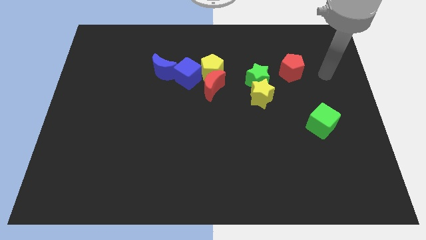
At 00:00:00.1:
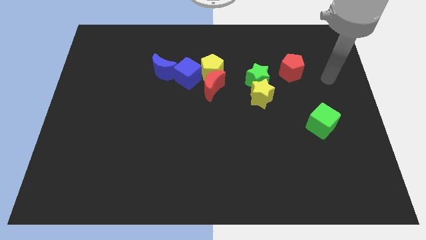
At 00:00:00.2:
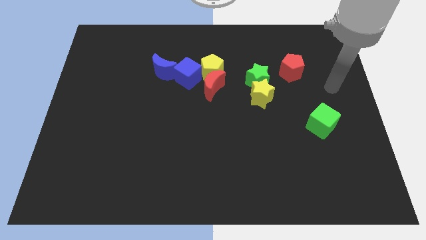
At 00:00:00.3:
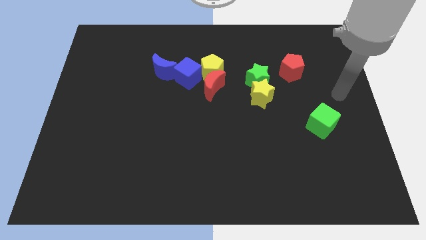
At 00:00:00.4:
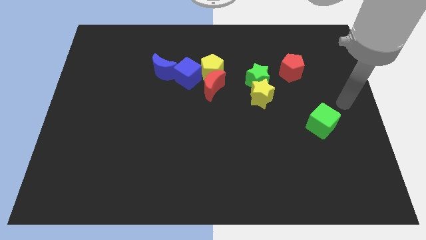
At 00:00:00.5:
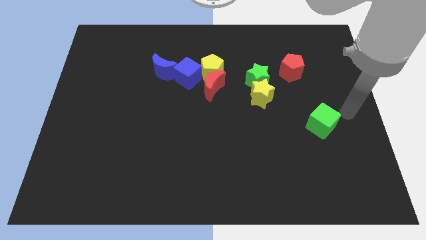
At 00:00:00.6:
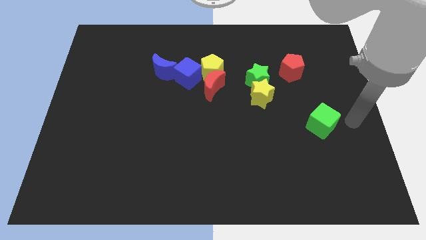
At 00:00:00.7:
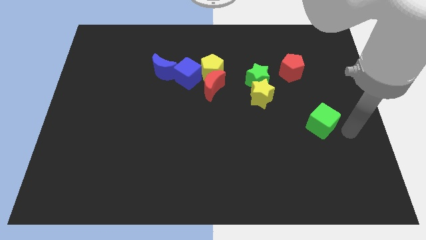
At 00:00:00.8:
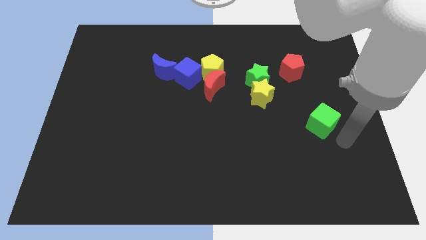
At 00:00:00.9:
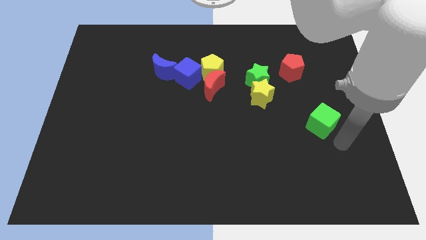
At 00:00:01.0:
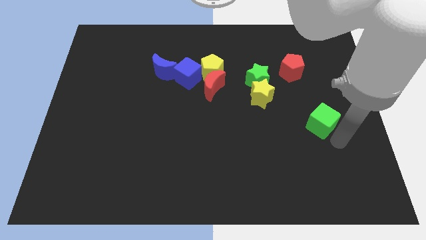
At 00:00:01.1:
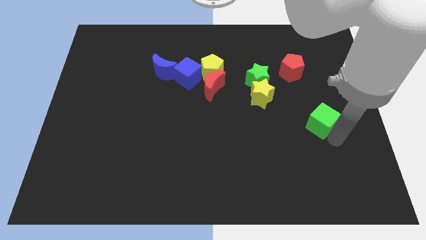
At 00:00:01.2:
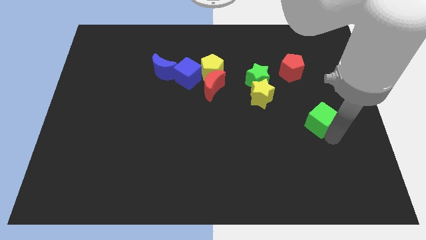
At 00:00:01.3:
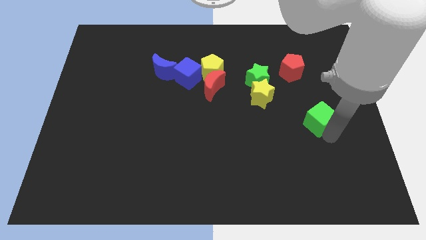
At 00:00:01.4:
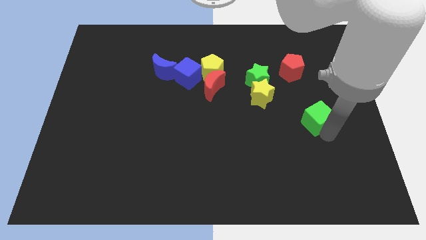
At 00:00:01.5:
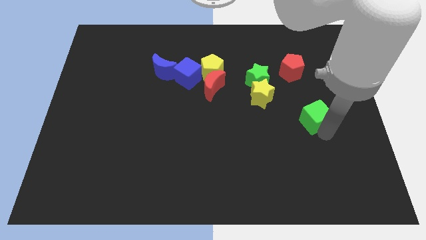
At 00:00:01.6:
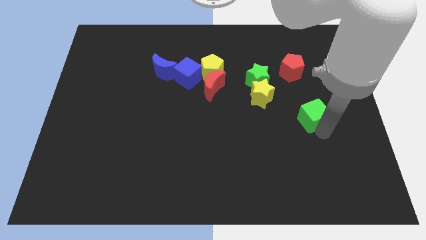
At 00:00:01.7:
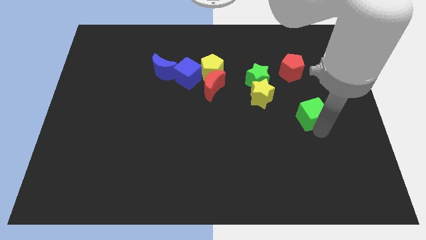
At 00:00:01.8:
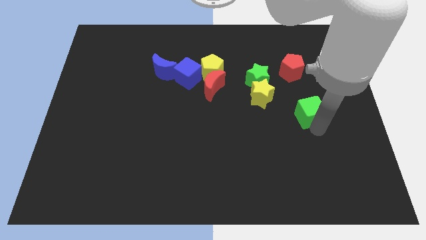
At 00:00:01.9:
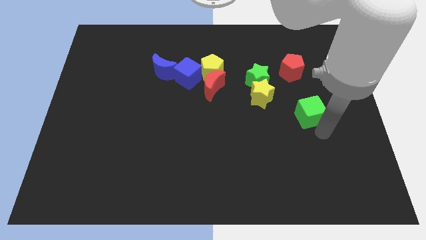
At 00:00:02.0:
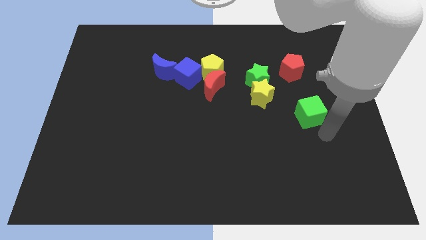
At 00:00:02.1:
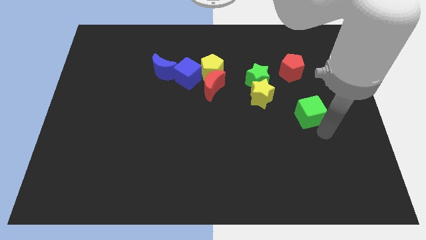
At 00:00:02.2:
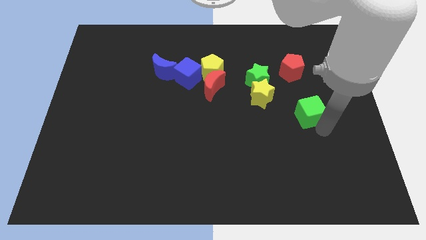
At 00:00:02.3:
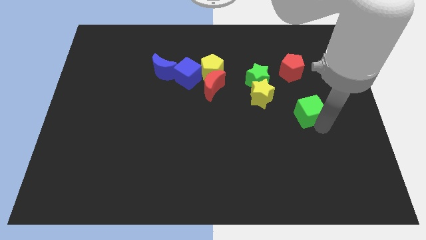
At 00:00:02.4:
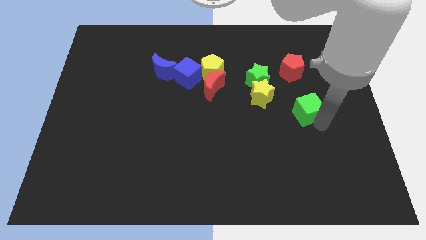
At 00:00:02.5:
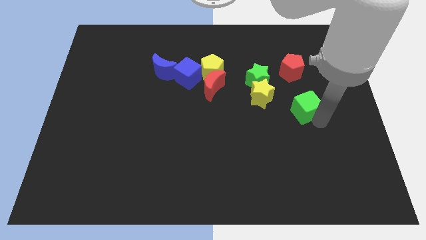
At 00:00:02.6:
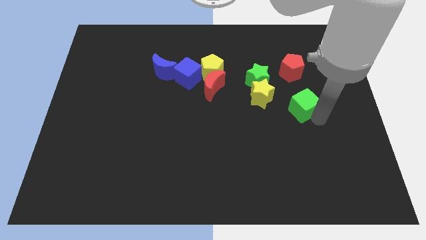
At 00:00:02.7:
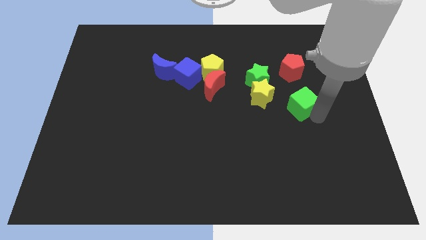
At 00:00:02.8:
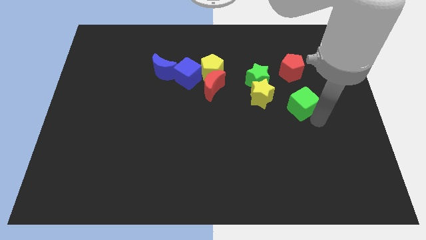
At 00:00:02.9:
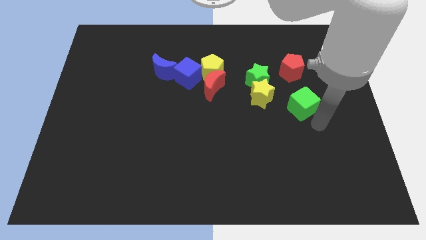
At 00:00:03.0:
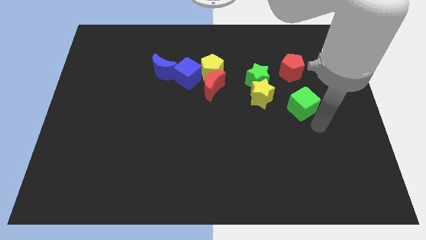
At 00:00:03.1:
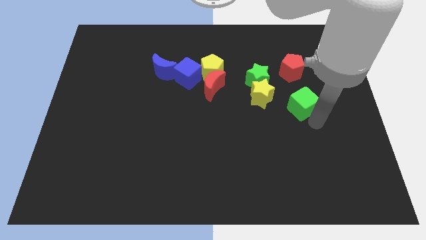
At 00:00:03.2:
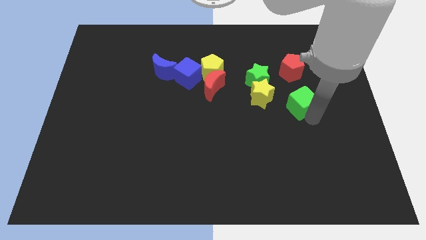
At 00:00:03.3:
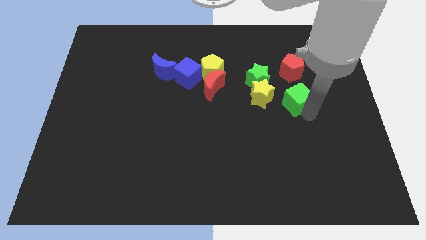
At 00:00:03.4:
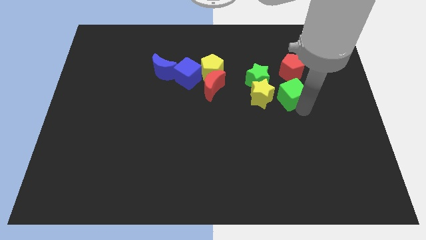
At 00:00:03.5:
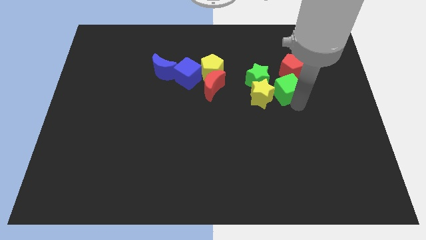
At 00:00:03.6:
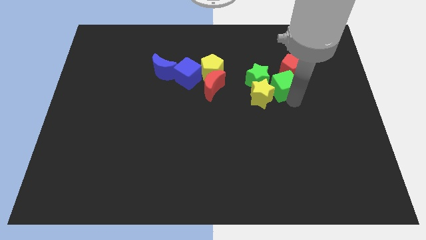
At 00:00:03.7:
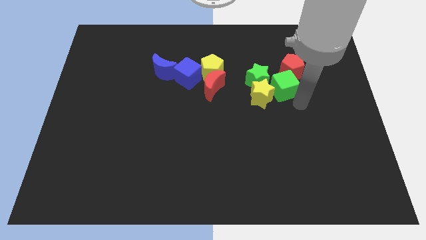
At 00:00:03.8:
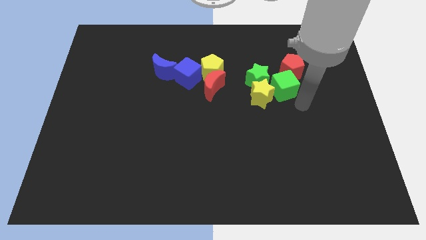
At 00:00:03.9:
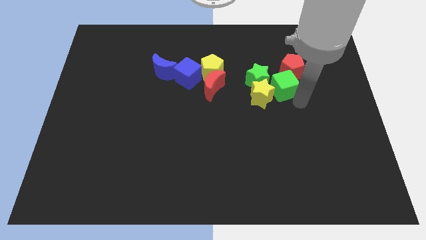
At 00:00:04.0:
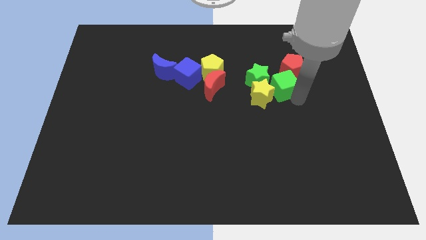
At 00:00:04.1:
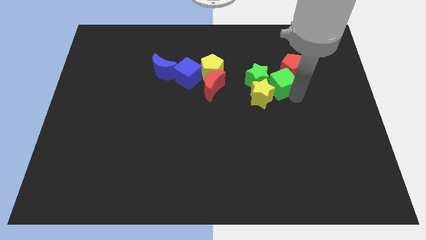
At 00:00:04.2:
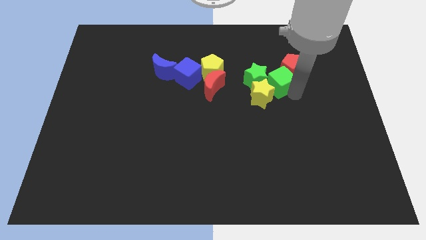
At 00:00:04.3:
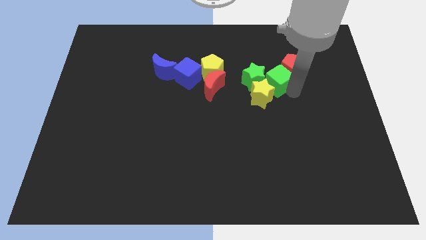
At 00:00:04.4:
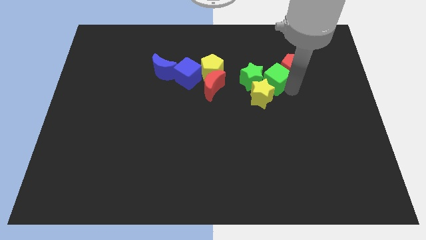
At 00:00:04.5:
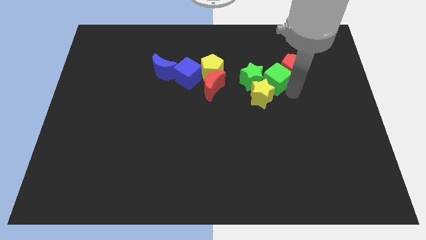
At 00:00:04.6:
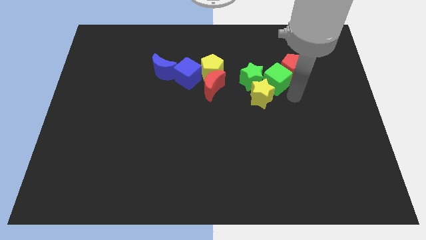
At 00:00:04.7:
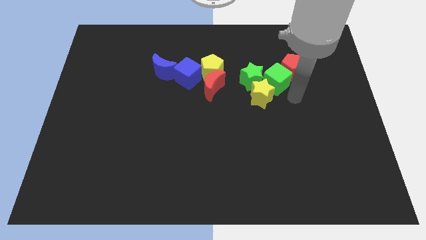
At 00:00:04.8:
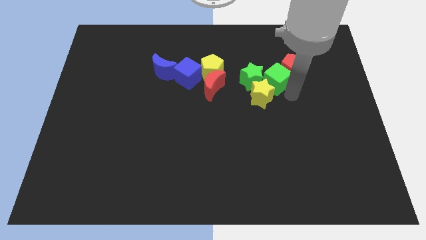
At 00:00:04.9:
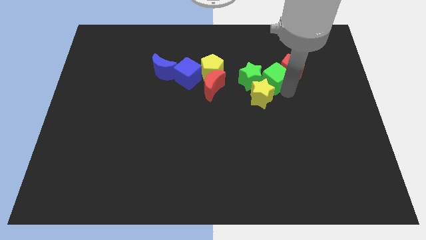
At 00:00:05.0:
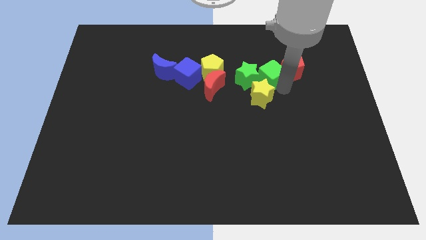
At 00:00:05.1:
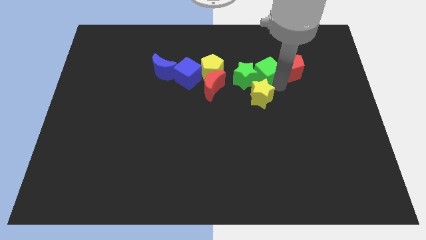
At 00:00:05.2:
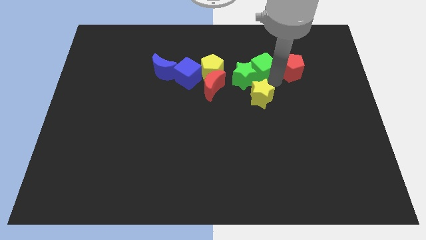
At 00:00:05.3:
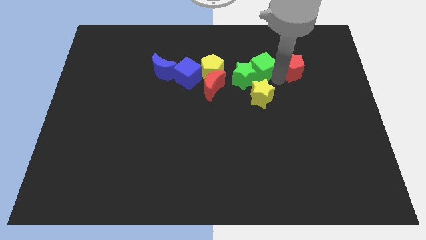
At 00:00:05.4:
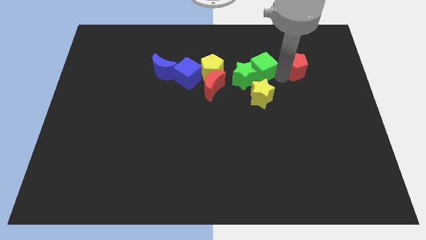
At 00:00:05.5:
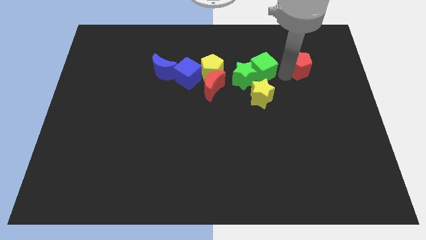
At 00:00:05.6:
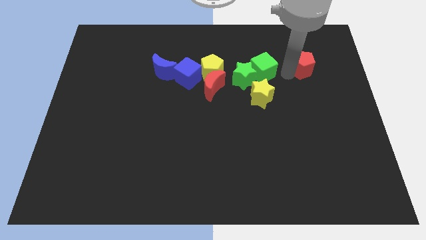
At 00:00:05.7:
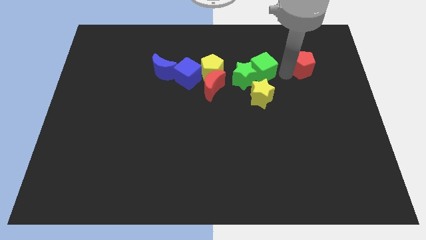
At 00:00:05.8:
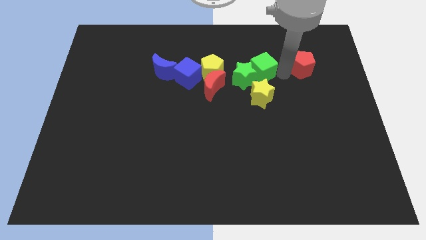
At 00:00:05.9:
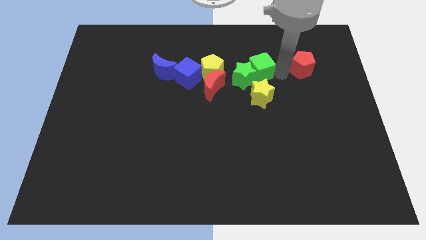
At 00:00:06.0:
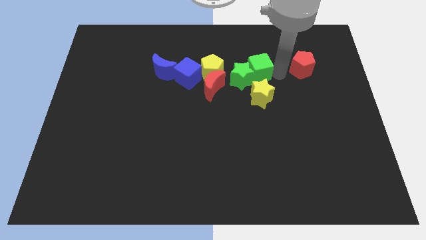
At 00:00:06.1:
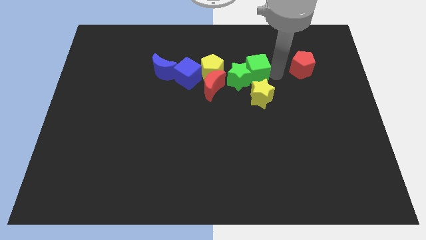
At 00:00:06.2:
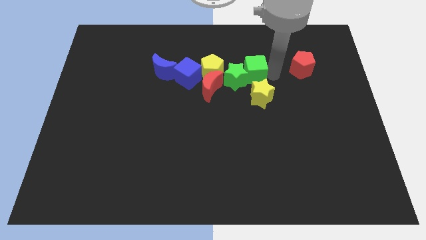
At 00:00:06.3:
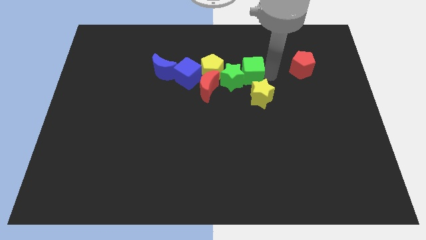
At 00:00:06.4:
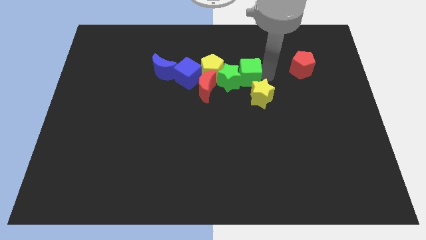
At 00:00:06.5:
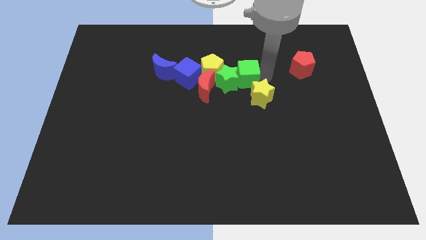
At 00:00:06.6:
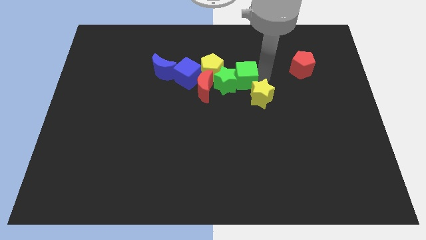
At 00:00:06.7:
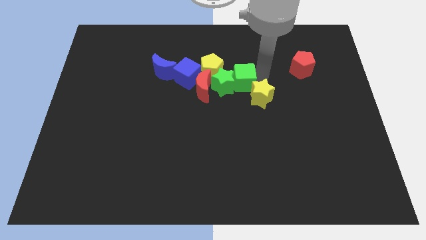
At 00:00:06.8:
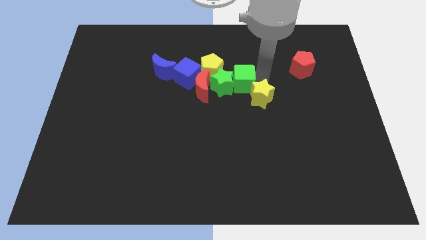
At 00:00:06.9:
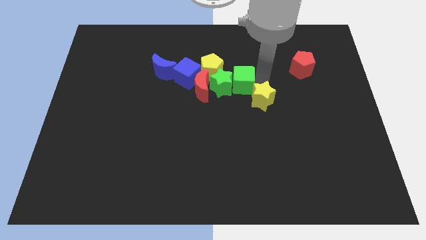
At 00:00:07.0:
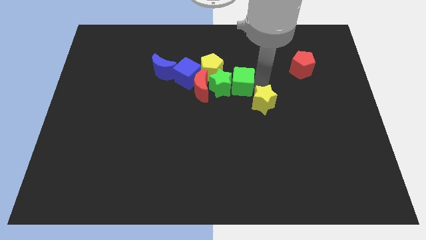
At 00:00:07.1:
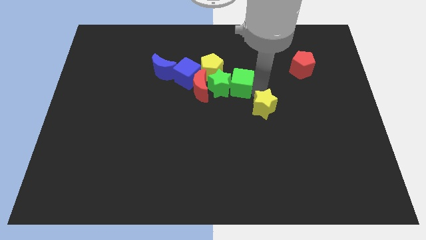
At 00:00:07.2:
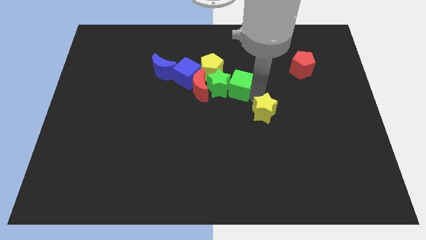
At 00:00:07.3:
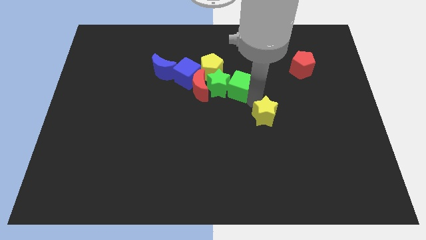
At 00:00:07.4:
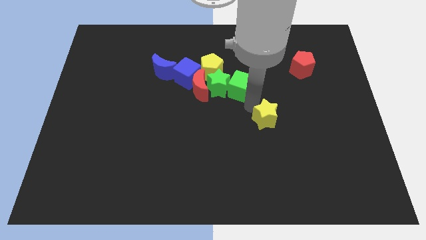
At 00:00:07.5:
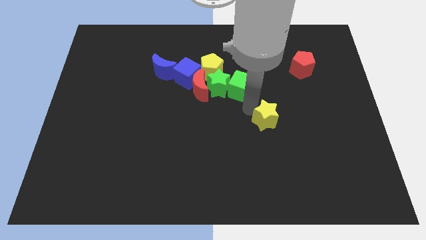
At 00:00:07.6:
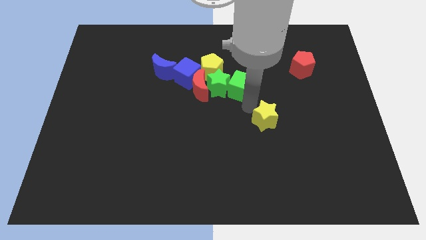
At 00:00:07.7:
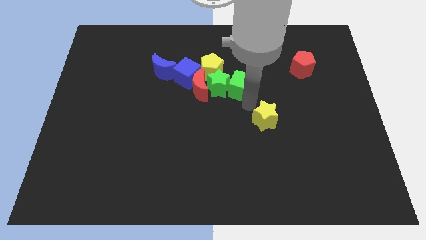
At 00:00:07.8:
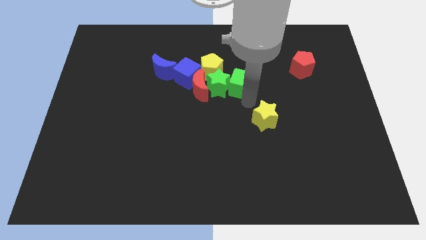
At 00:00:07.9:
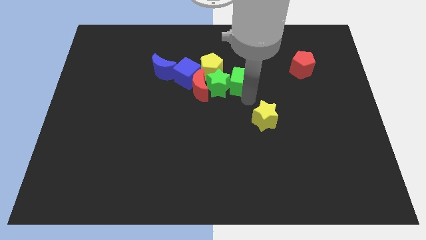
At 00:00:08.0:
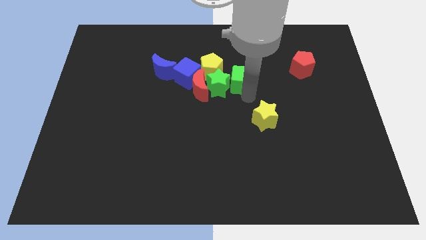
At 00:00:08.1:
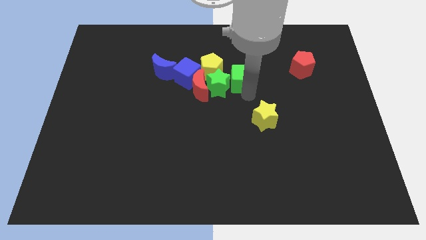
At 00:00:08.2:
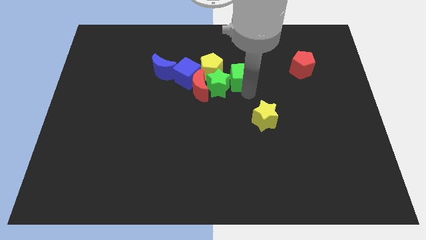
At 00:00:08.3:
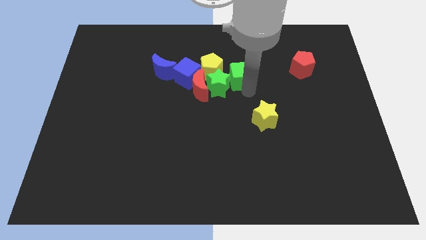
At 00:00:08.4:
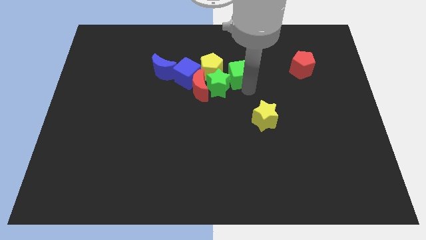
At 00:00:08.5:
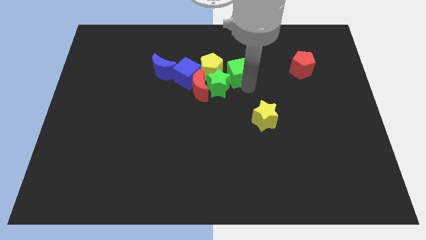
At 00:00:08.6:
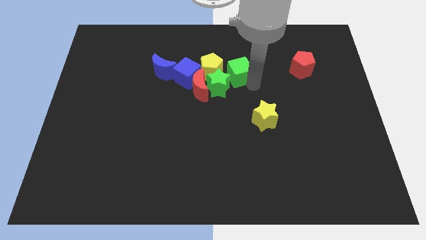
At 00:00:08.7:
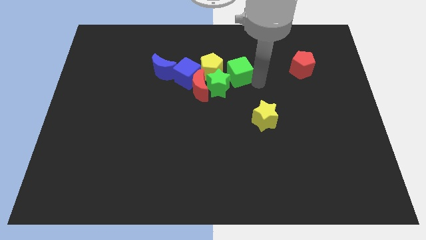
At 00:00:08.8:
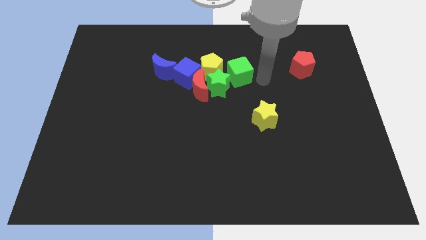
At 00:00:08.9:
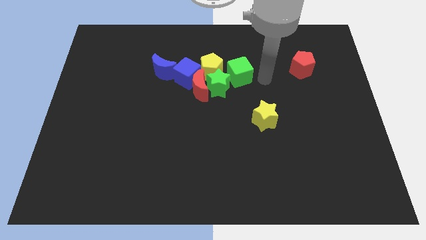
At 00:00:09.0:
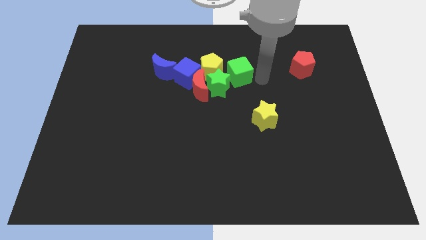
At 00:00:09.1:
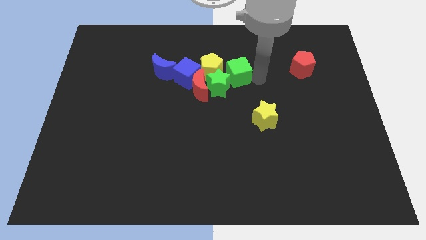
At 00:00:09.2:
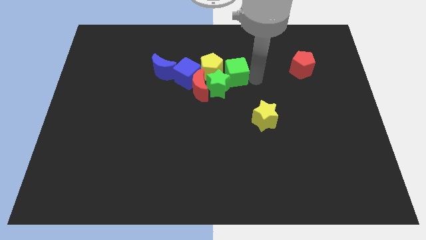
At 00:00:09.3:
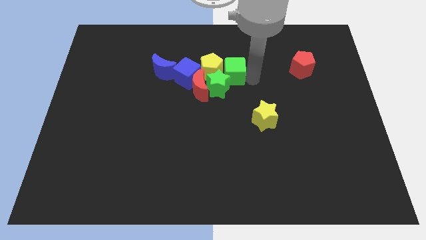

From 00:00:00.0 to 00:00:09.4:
move the green cube close to the yellow pentagon
